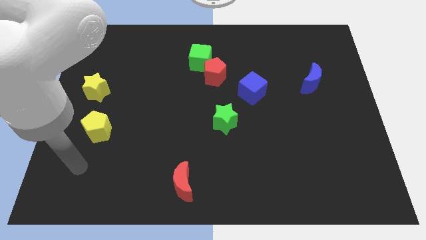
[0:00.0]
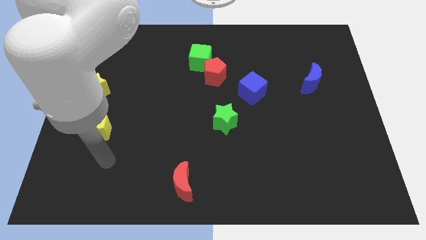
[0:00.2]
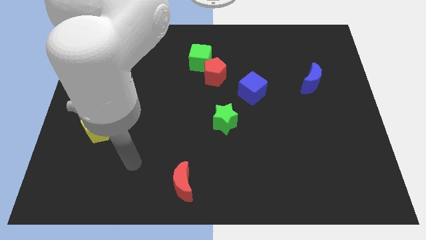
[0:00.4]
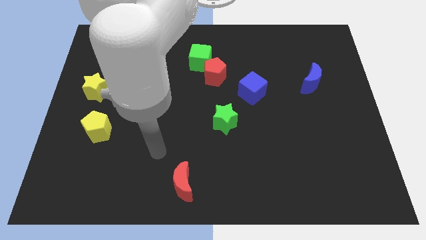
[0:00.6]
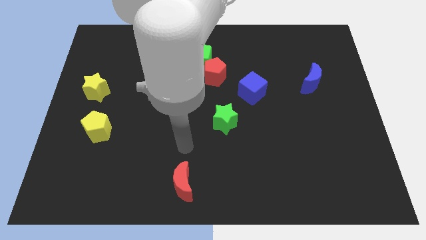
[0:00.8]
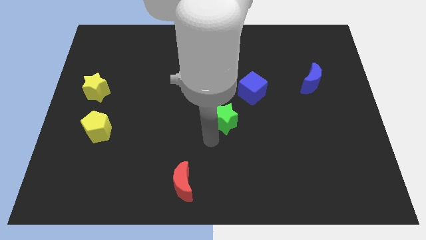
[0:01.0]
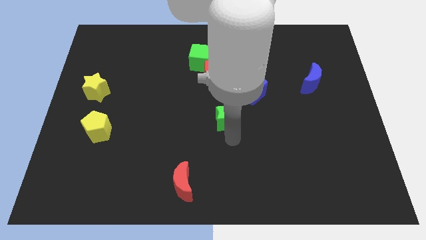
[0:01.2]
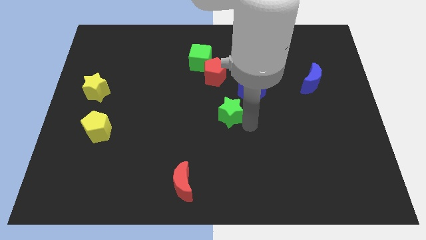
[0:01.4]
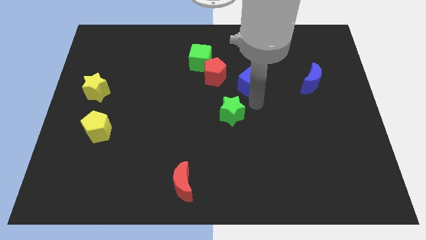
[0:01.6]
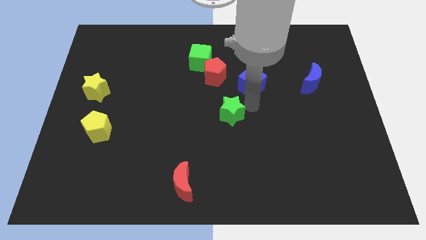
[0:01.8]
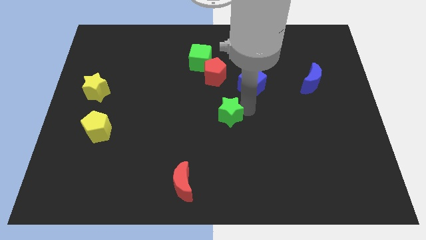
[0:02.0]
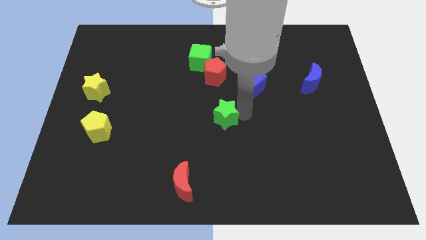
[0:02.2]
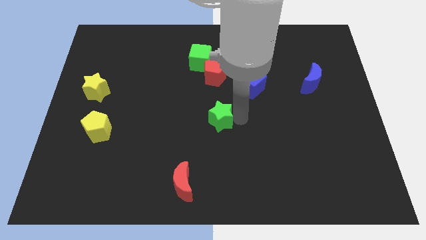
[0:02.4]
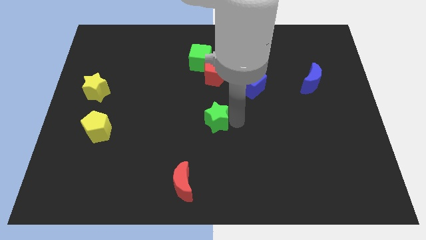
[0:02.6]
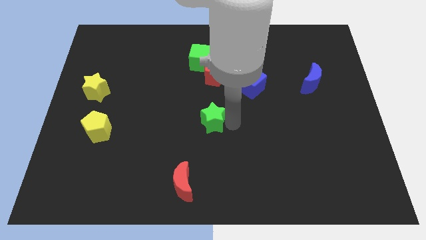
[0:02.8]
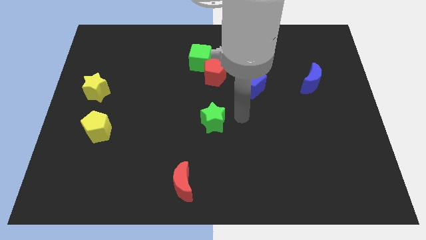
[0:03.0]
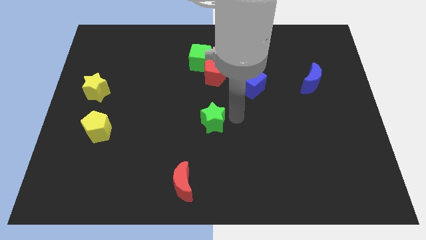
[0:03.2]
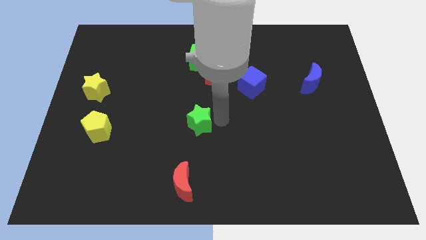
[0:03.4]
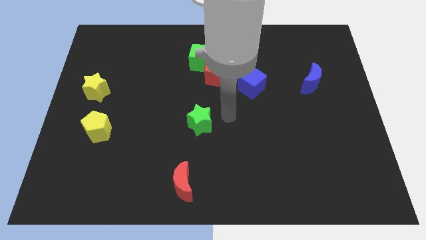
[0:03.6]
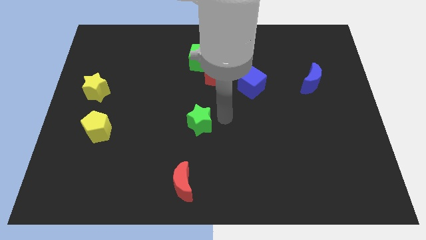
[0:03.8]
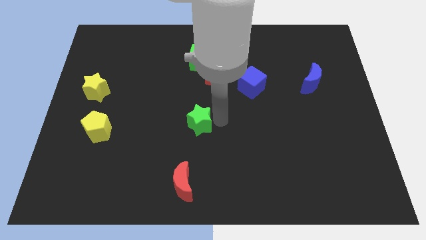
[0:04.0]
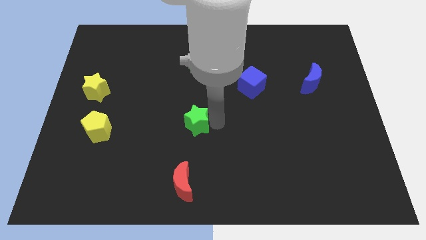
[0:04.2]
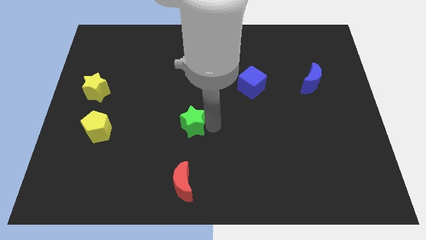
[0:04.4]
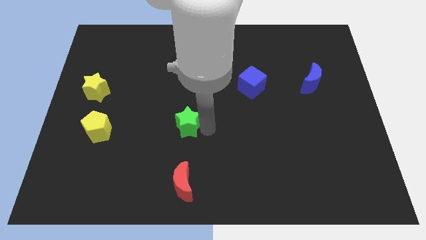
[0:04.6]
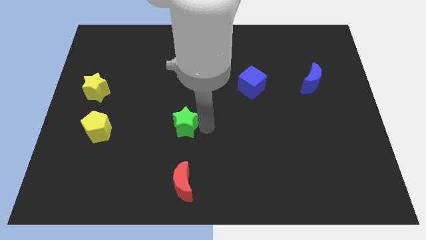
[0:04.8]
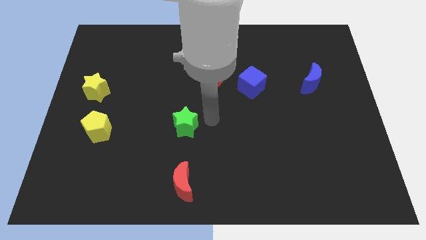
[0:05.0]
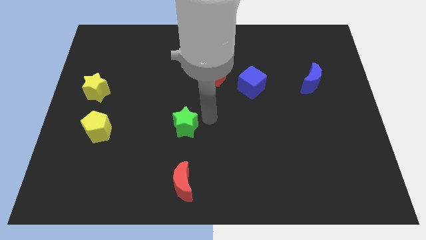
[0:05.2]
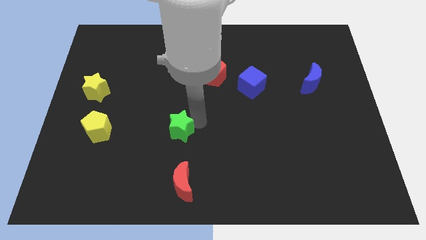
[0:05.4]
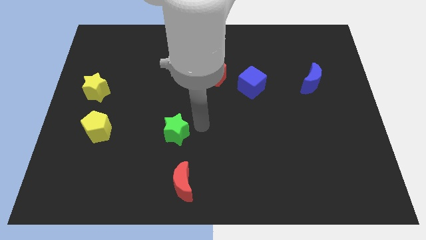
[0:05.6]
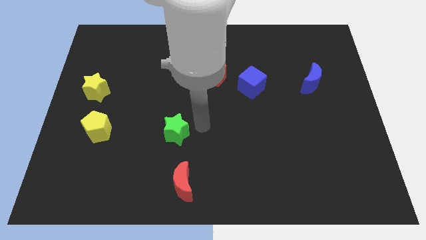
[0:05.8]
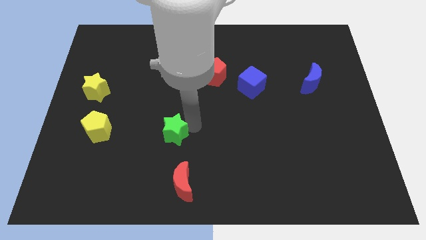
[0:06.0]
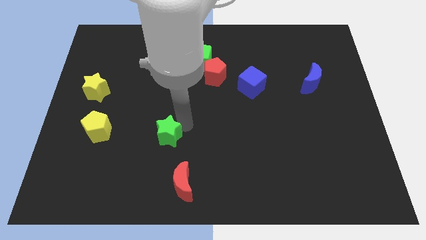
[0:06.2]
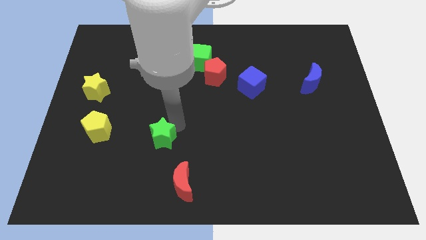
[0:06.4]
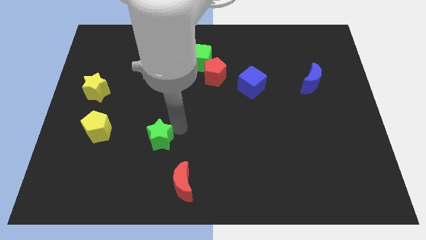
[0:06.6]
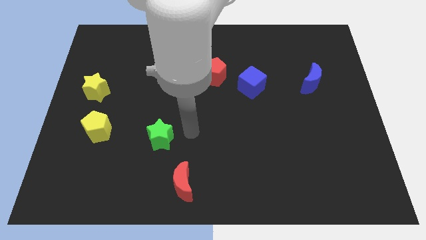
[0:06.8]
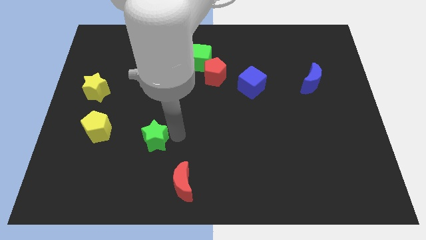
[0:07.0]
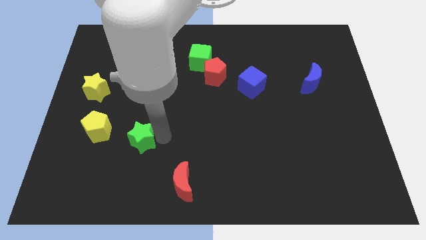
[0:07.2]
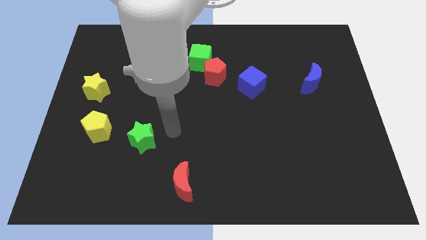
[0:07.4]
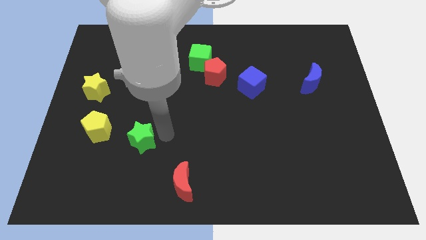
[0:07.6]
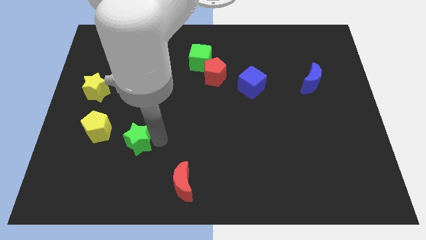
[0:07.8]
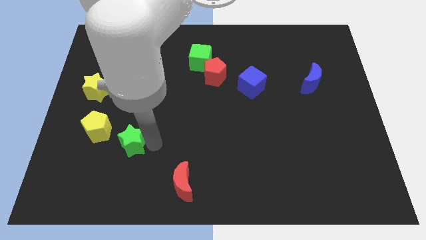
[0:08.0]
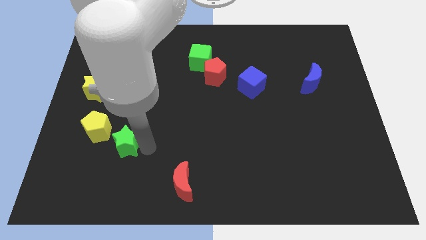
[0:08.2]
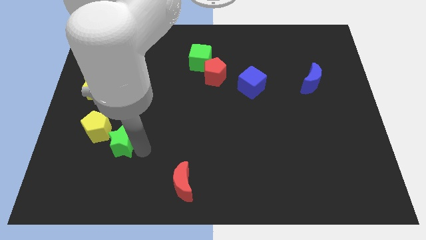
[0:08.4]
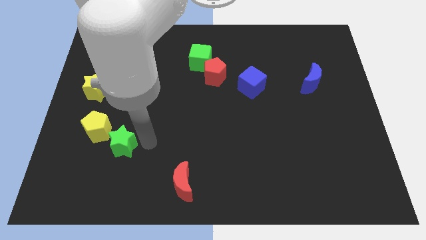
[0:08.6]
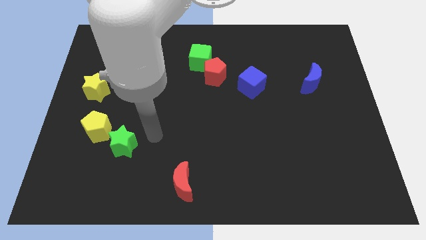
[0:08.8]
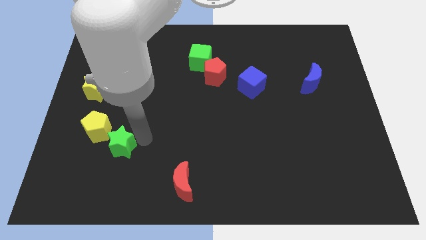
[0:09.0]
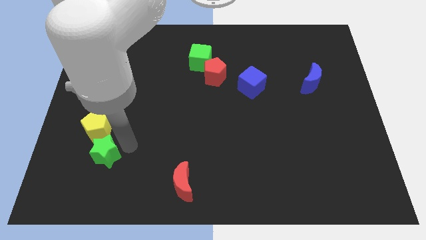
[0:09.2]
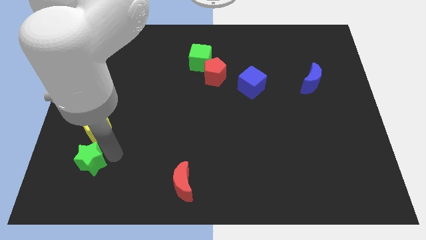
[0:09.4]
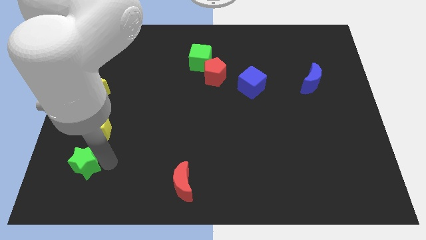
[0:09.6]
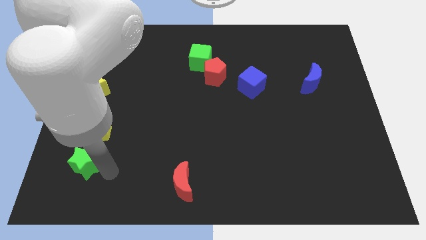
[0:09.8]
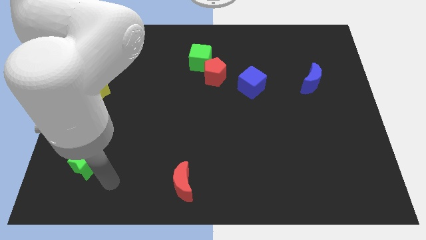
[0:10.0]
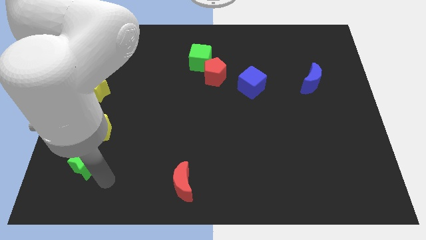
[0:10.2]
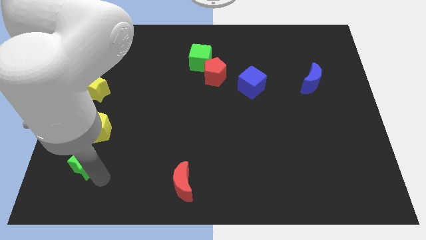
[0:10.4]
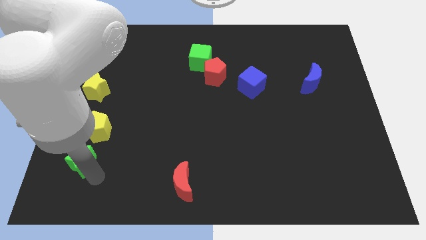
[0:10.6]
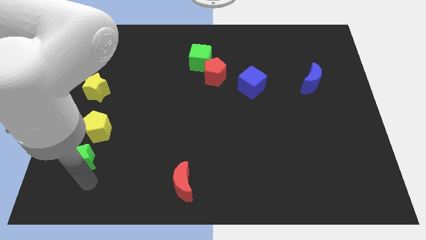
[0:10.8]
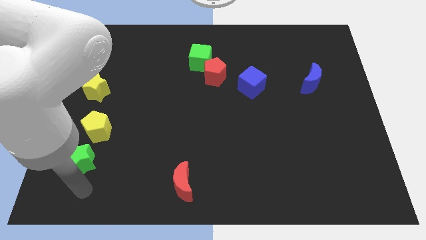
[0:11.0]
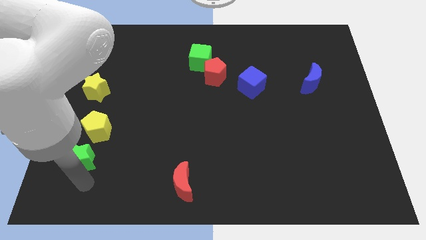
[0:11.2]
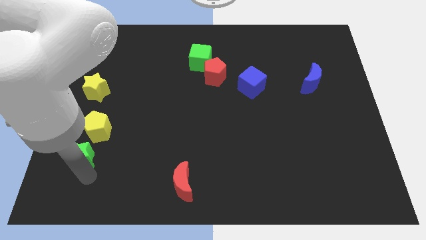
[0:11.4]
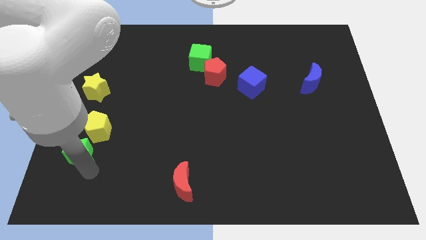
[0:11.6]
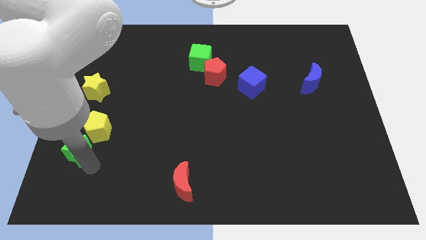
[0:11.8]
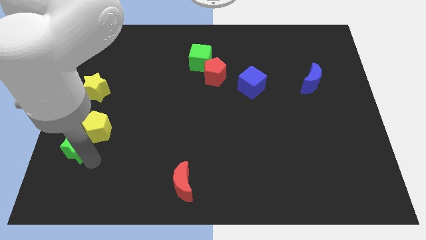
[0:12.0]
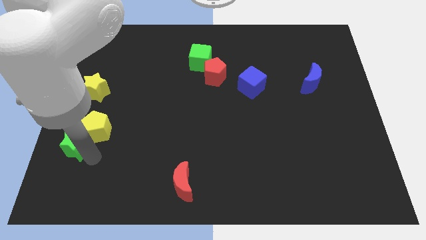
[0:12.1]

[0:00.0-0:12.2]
slide the green star below the yellow star
